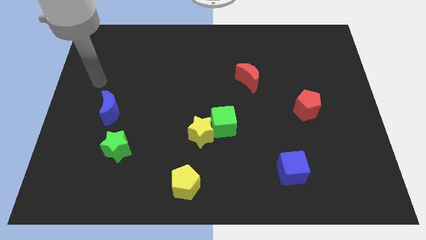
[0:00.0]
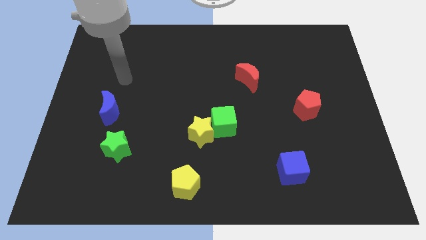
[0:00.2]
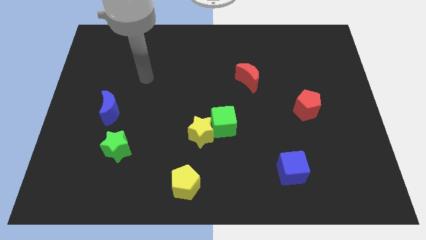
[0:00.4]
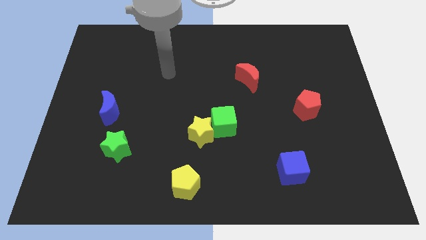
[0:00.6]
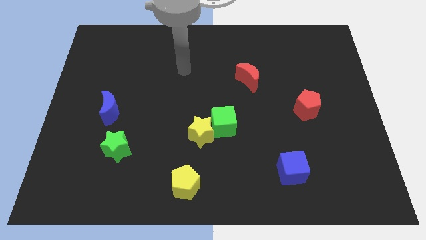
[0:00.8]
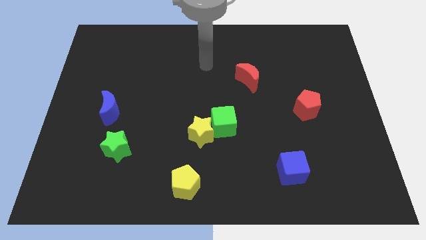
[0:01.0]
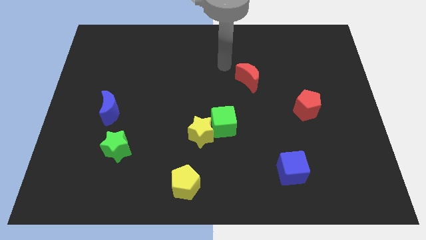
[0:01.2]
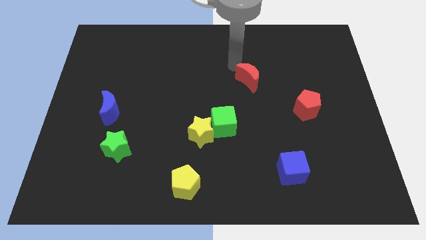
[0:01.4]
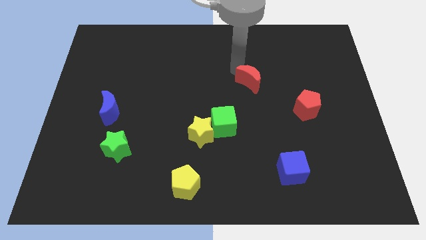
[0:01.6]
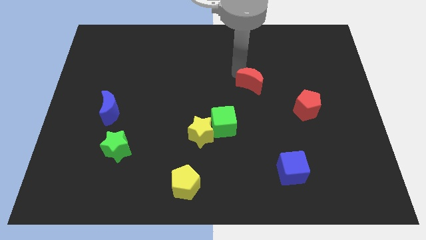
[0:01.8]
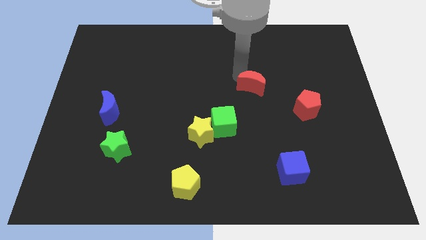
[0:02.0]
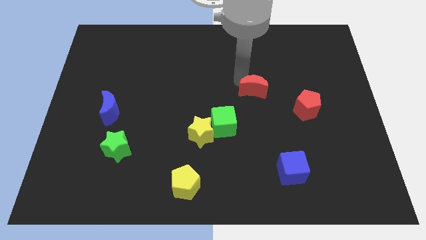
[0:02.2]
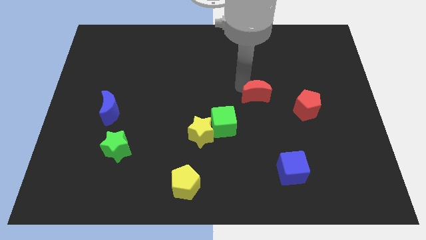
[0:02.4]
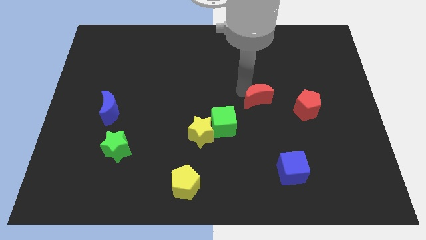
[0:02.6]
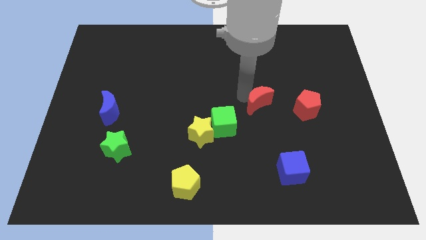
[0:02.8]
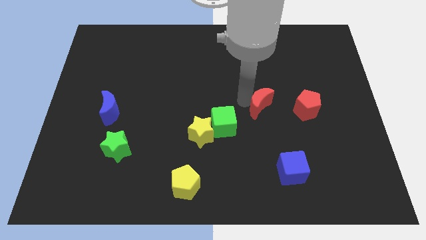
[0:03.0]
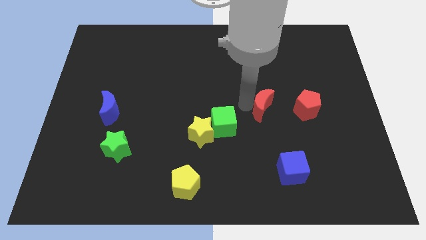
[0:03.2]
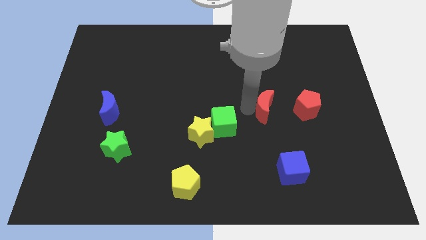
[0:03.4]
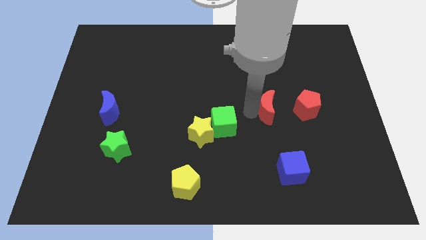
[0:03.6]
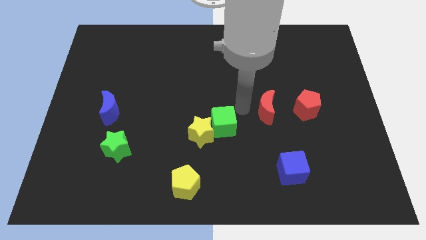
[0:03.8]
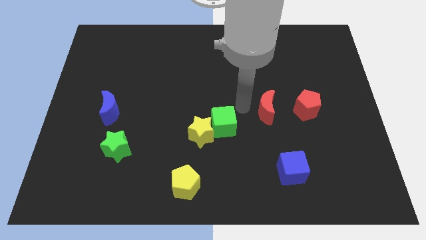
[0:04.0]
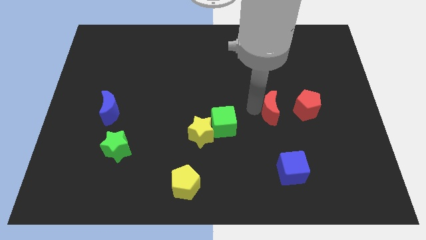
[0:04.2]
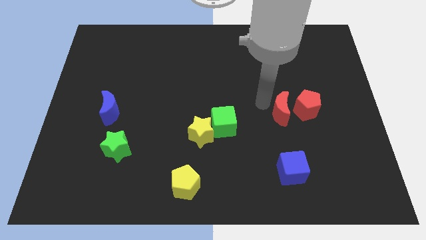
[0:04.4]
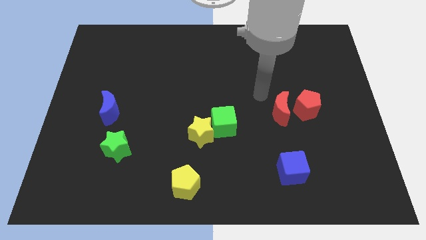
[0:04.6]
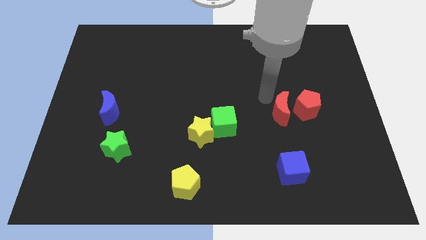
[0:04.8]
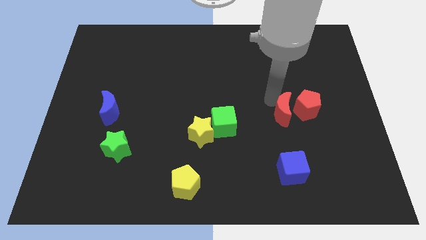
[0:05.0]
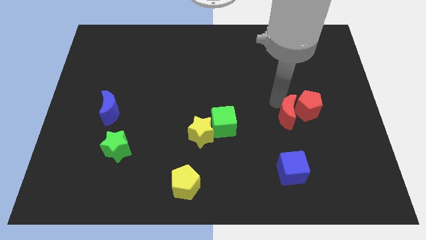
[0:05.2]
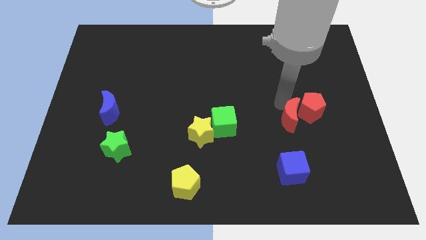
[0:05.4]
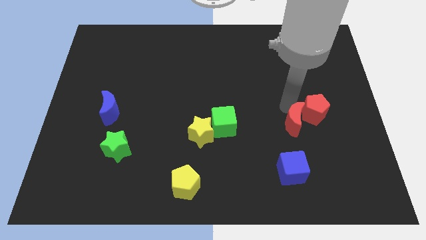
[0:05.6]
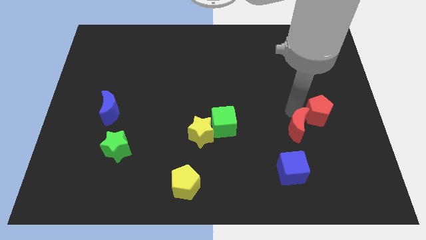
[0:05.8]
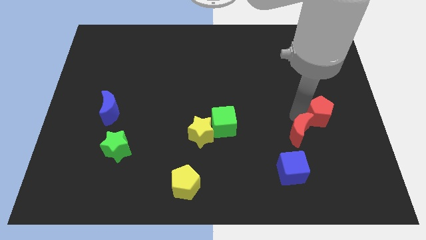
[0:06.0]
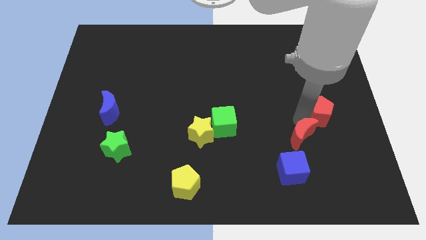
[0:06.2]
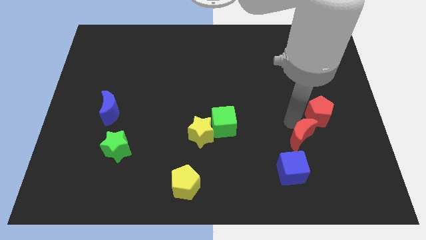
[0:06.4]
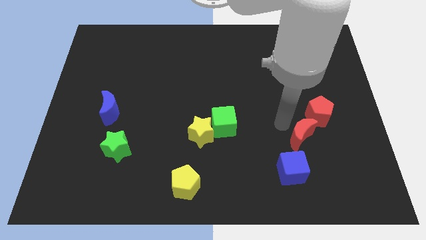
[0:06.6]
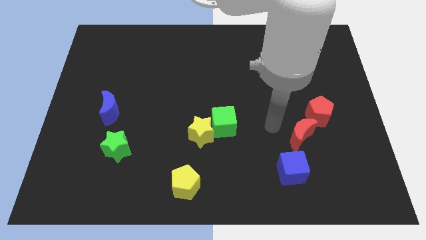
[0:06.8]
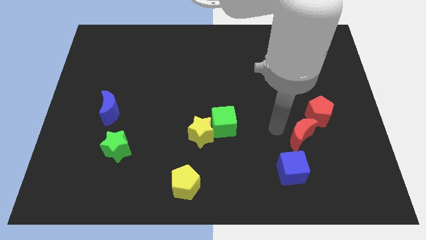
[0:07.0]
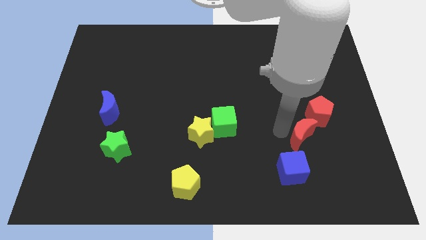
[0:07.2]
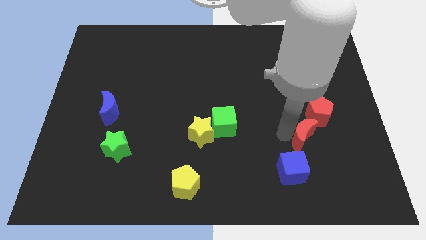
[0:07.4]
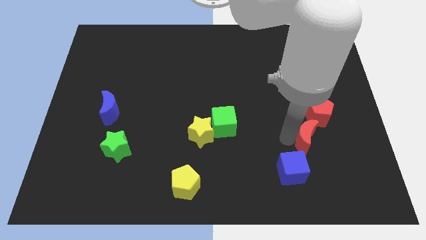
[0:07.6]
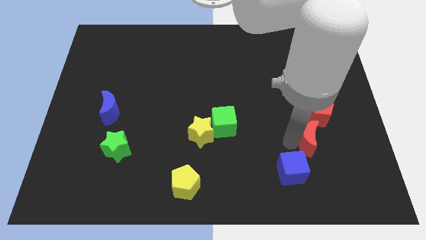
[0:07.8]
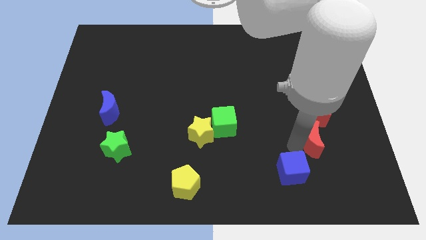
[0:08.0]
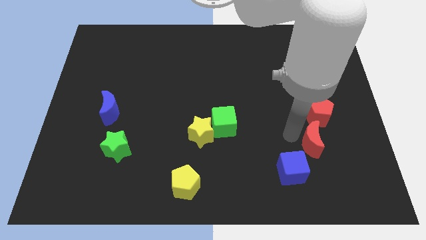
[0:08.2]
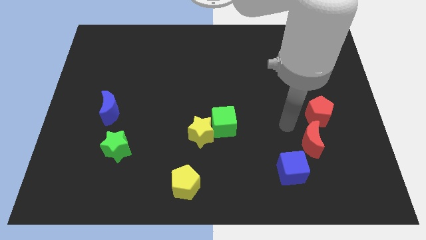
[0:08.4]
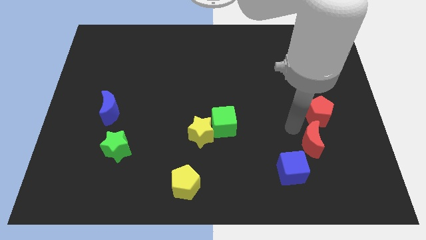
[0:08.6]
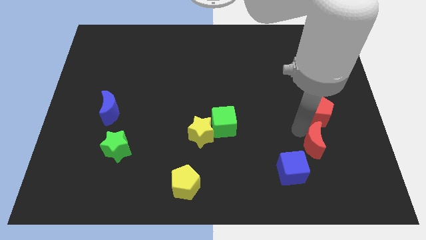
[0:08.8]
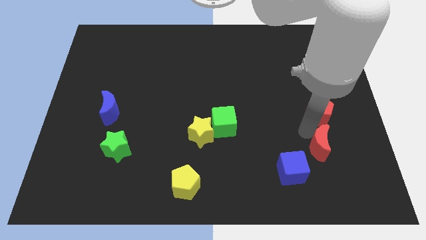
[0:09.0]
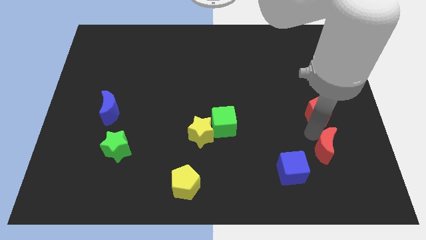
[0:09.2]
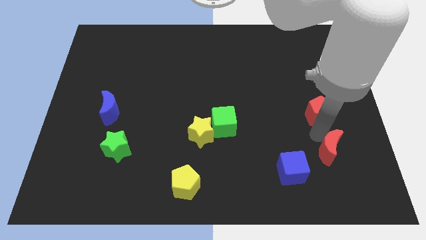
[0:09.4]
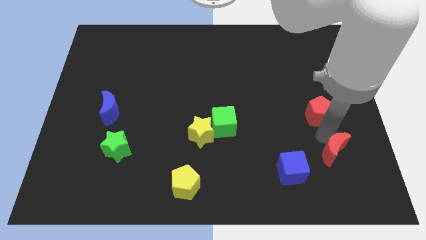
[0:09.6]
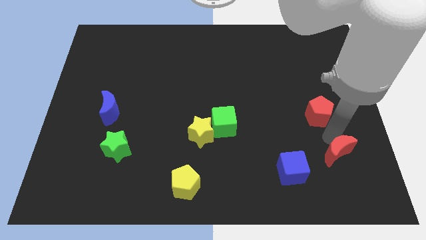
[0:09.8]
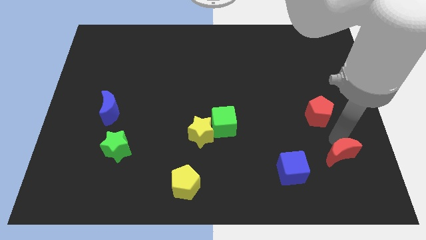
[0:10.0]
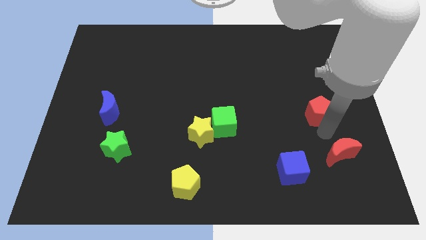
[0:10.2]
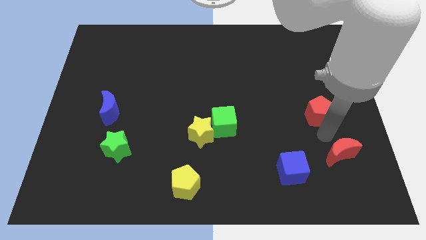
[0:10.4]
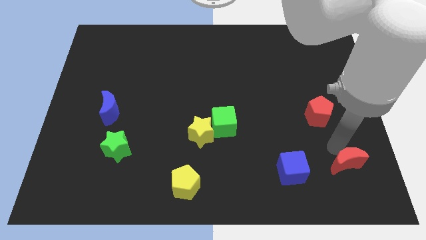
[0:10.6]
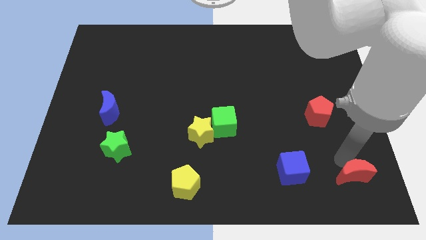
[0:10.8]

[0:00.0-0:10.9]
push the red moon to the bottom right corner
